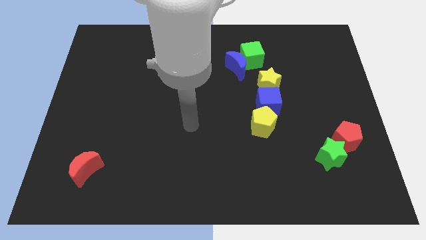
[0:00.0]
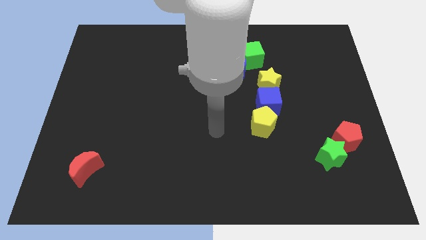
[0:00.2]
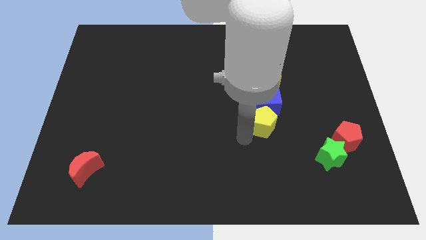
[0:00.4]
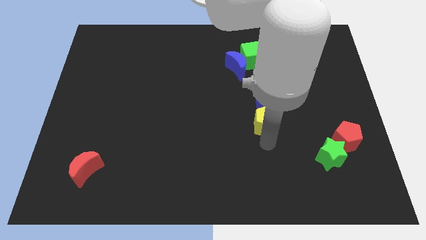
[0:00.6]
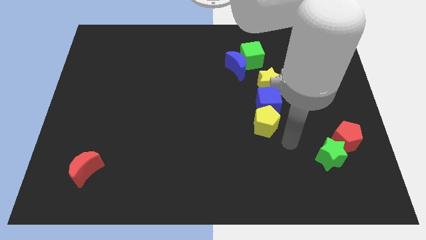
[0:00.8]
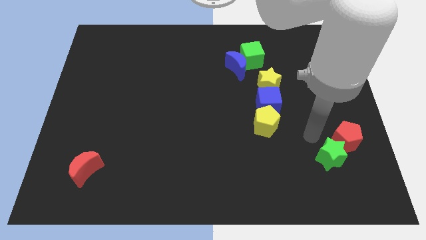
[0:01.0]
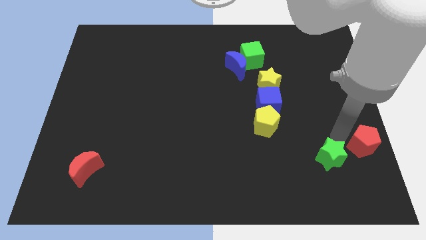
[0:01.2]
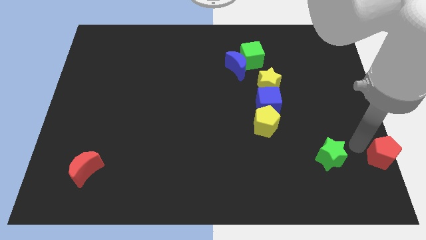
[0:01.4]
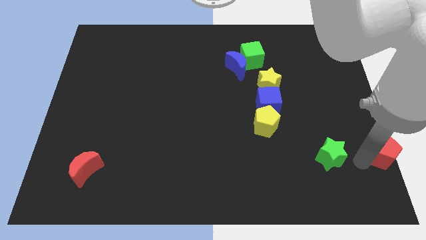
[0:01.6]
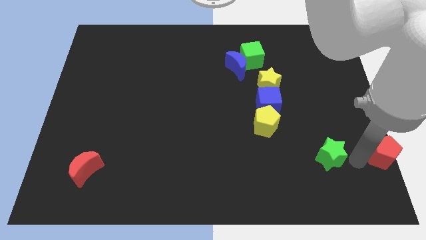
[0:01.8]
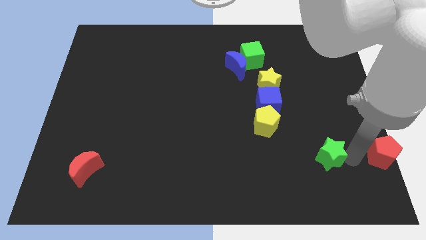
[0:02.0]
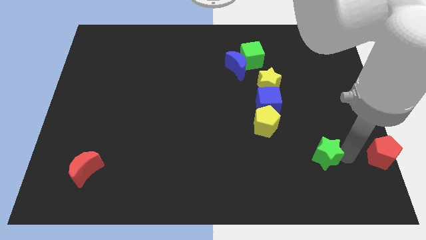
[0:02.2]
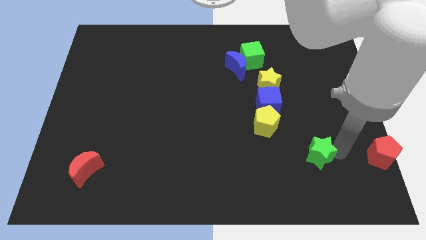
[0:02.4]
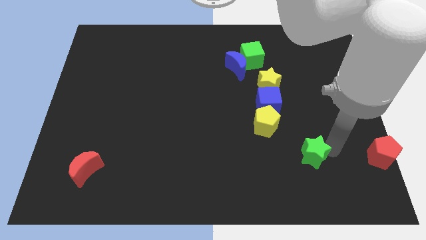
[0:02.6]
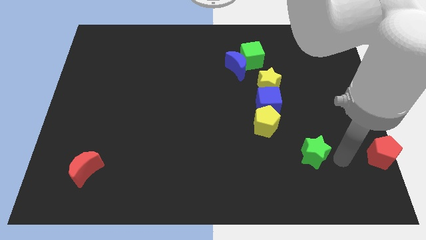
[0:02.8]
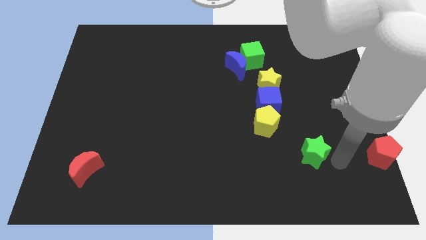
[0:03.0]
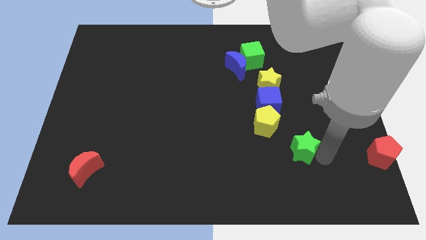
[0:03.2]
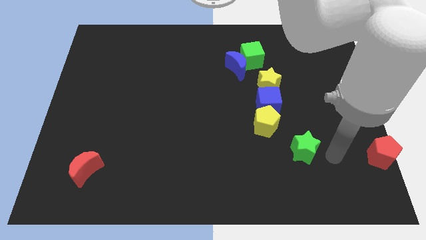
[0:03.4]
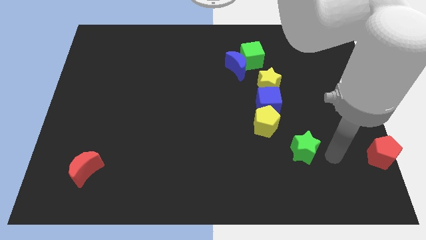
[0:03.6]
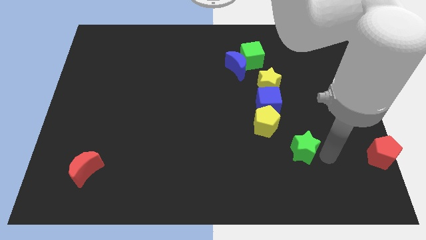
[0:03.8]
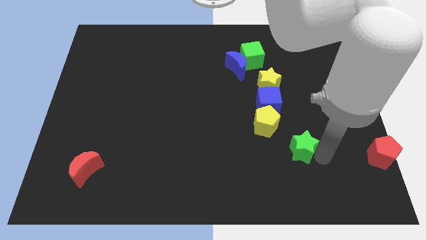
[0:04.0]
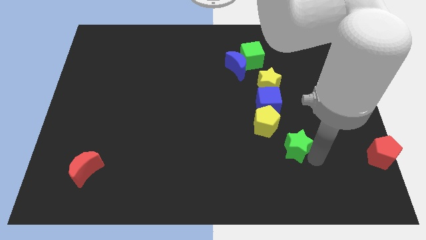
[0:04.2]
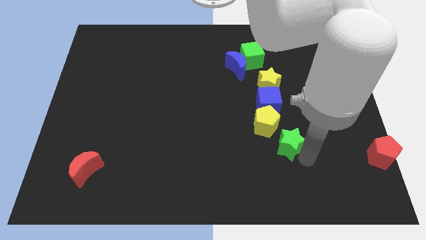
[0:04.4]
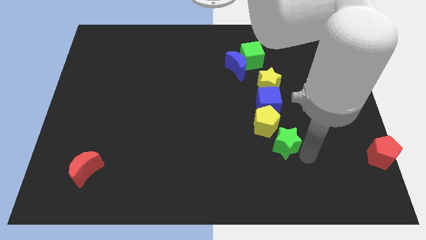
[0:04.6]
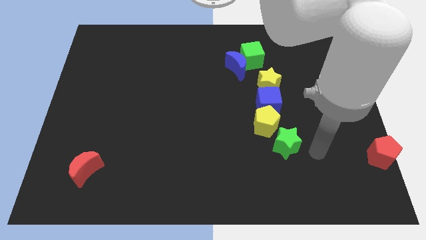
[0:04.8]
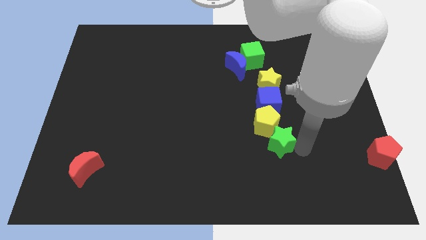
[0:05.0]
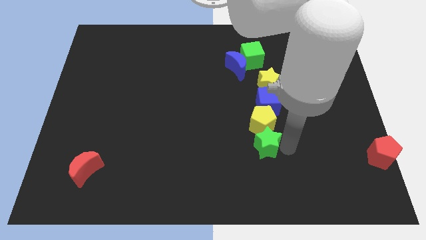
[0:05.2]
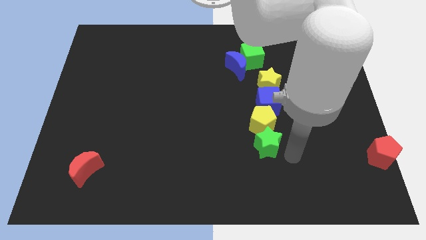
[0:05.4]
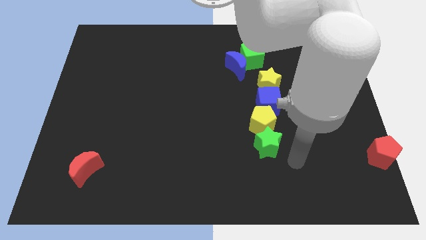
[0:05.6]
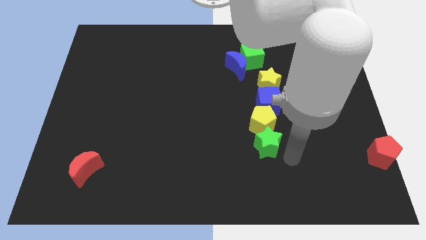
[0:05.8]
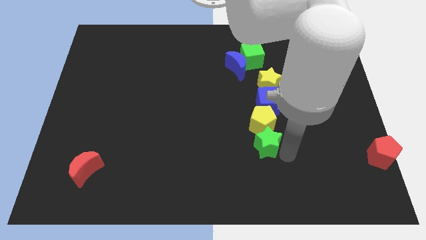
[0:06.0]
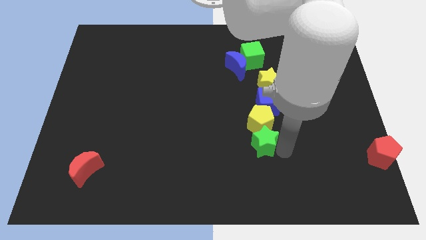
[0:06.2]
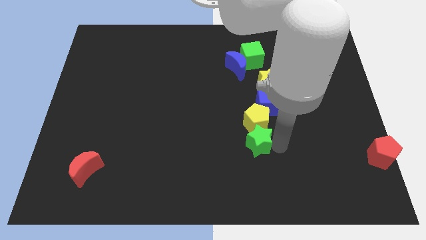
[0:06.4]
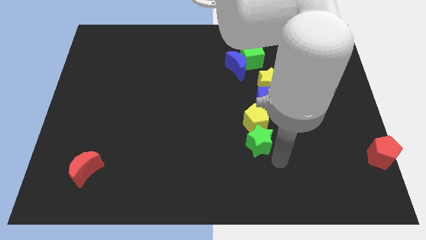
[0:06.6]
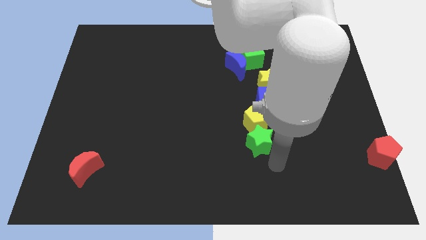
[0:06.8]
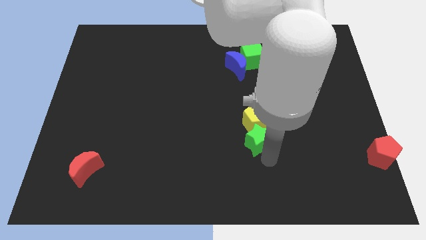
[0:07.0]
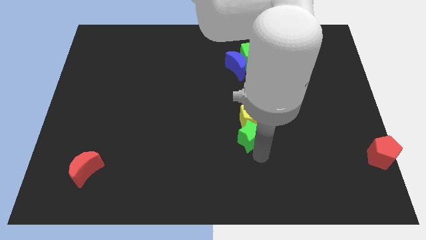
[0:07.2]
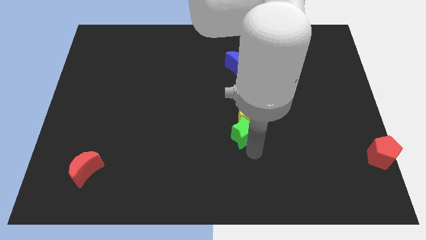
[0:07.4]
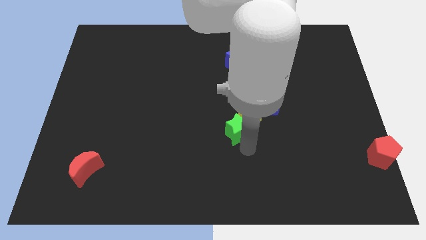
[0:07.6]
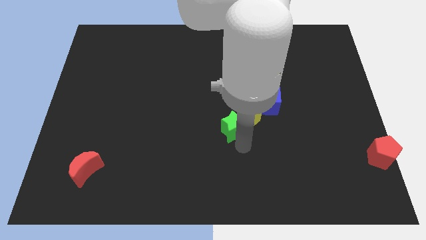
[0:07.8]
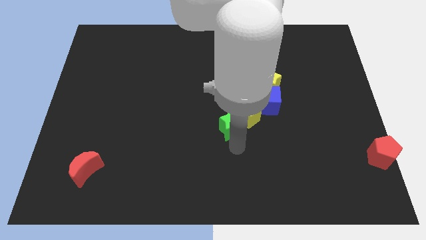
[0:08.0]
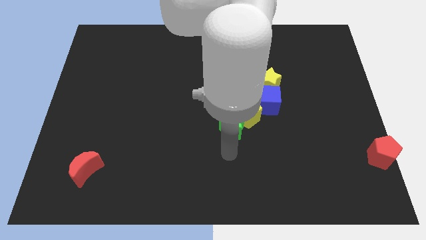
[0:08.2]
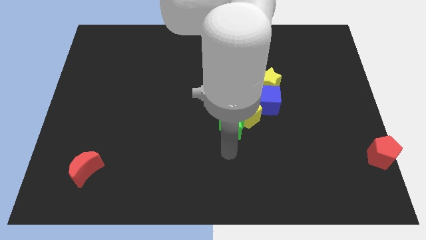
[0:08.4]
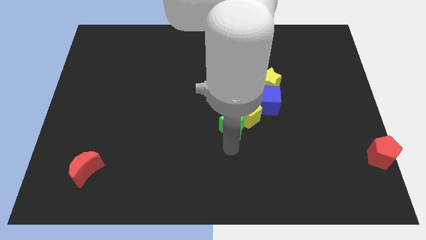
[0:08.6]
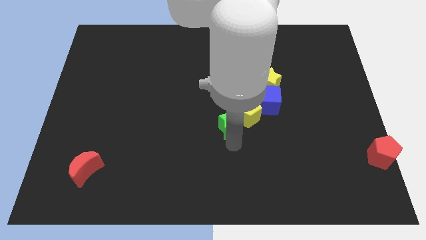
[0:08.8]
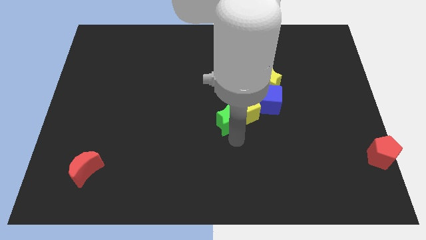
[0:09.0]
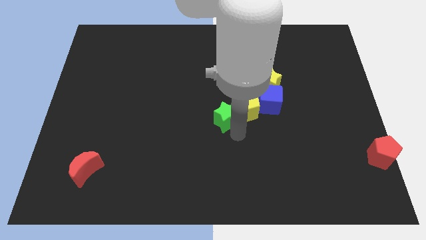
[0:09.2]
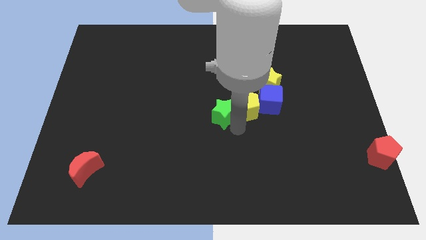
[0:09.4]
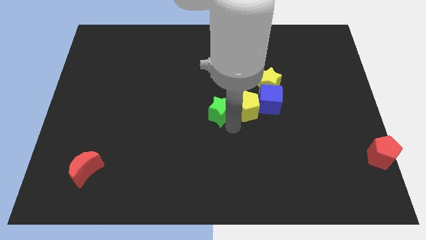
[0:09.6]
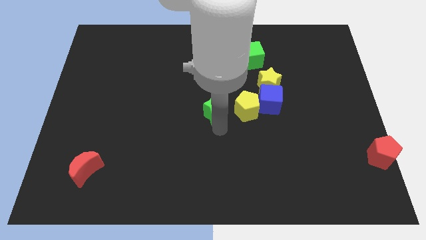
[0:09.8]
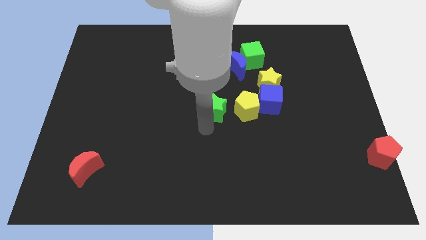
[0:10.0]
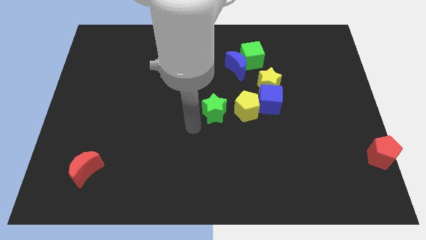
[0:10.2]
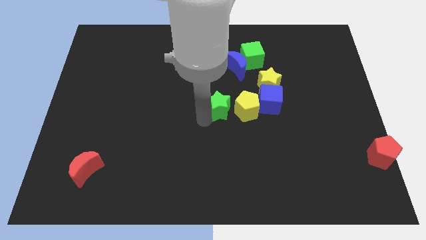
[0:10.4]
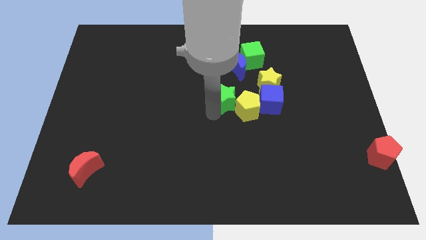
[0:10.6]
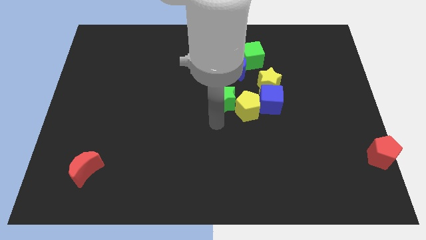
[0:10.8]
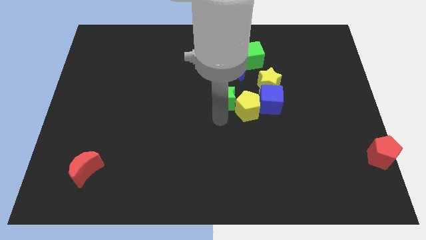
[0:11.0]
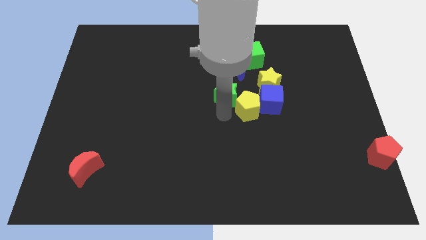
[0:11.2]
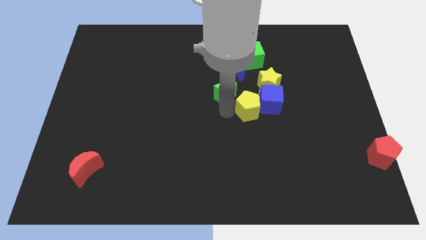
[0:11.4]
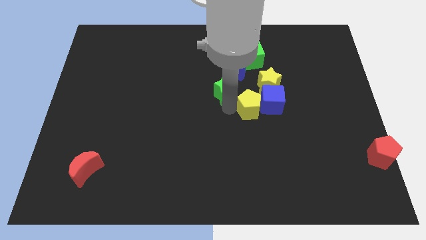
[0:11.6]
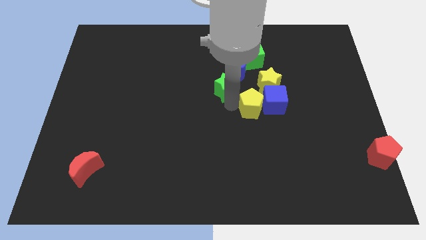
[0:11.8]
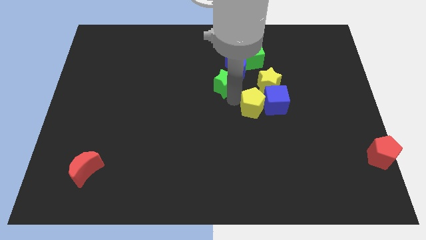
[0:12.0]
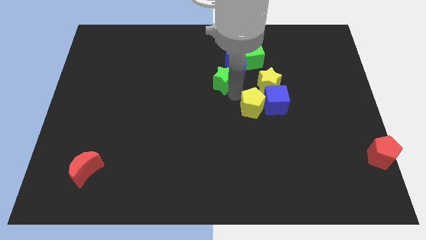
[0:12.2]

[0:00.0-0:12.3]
move the green star towards the blue moon

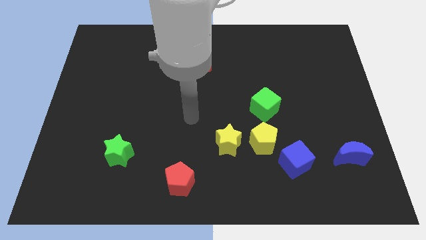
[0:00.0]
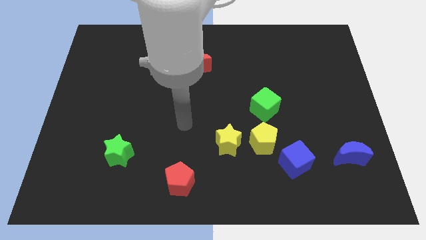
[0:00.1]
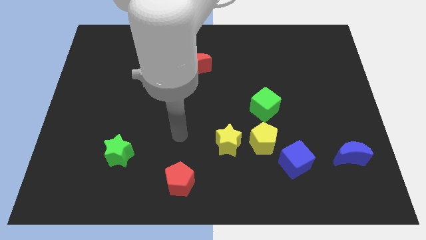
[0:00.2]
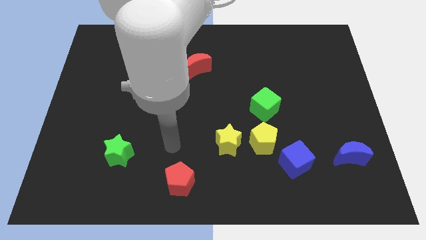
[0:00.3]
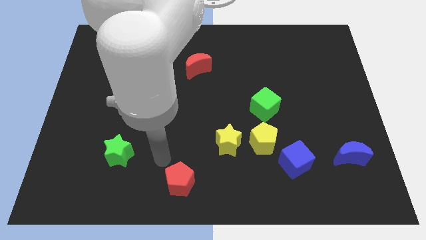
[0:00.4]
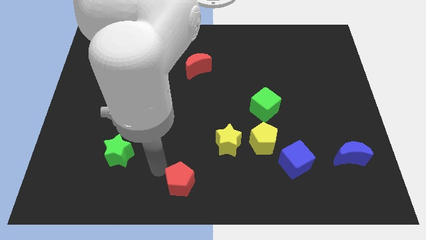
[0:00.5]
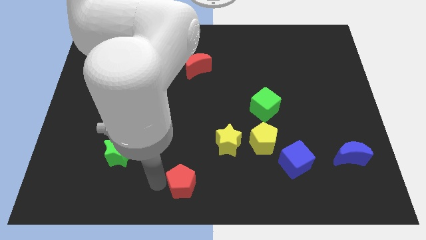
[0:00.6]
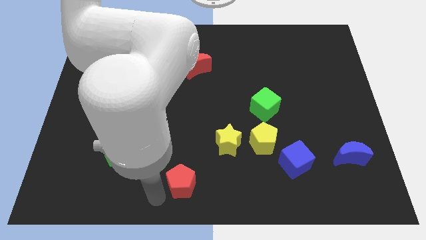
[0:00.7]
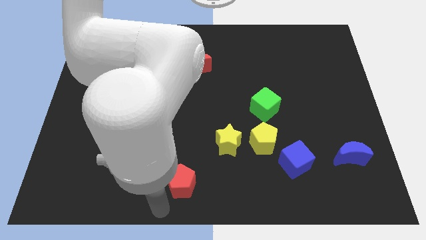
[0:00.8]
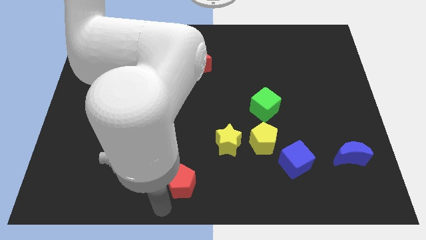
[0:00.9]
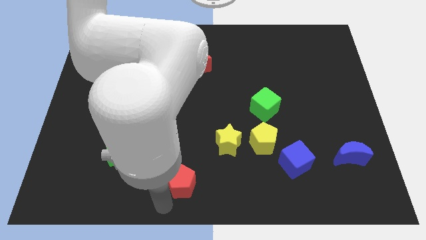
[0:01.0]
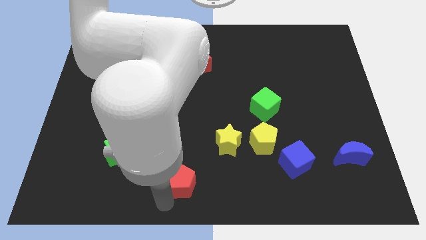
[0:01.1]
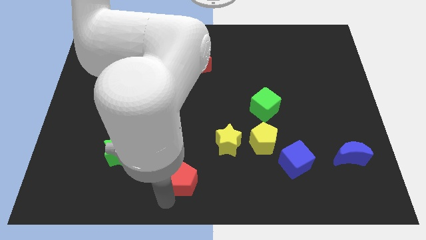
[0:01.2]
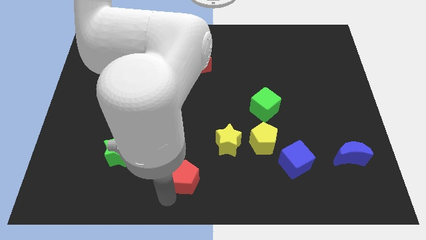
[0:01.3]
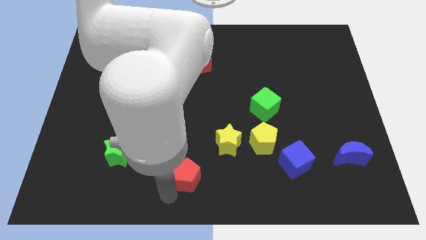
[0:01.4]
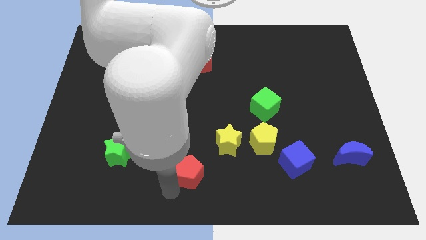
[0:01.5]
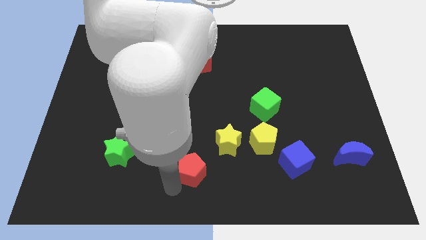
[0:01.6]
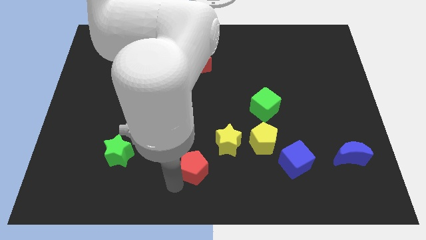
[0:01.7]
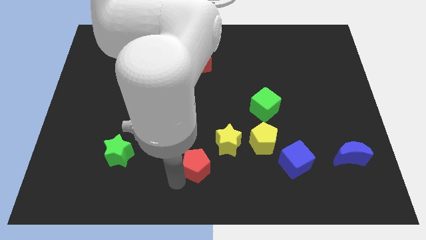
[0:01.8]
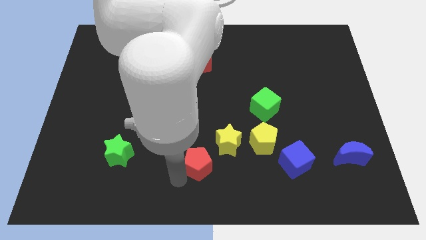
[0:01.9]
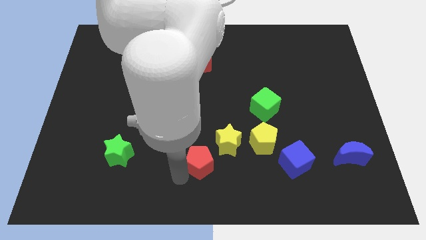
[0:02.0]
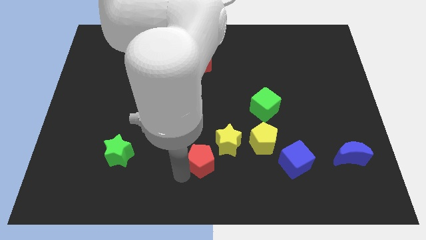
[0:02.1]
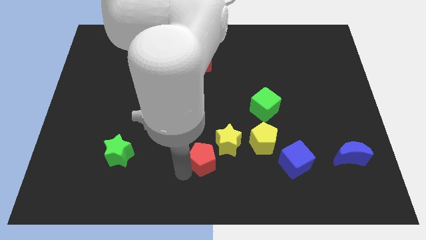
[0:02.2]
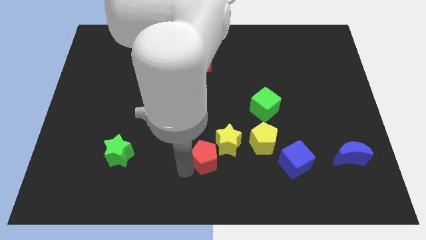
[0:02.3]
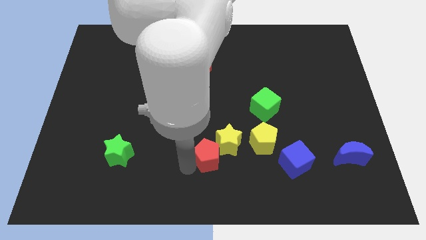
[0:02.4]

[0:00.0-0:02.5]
slide the red pentagon towards the yellow star
